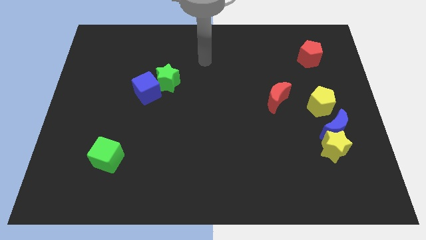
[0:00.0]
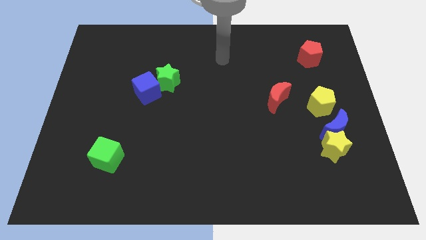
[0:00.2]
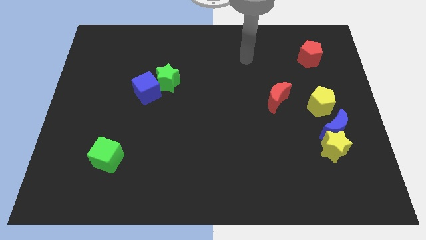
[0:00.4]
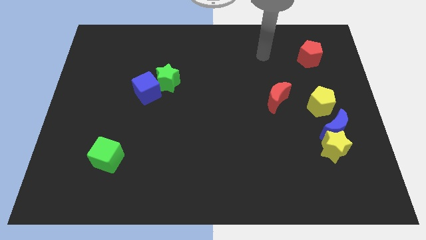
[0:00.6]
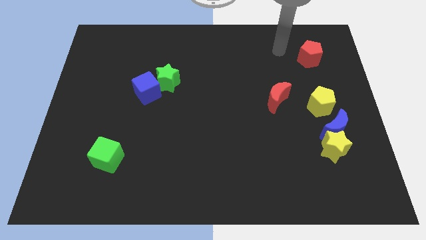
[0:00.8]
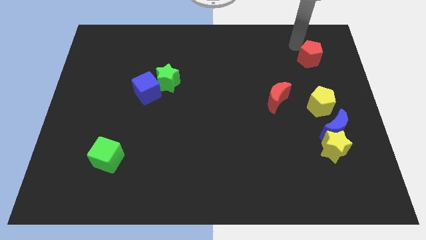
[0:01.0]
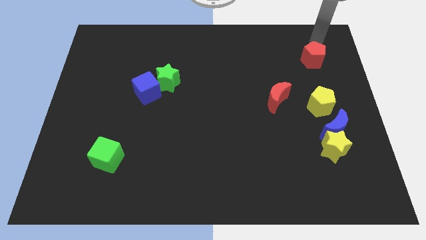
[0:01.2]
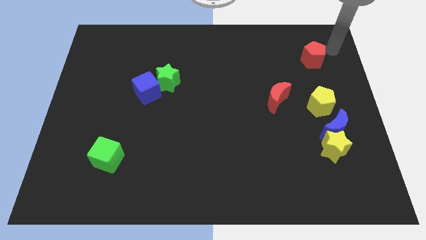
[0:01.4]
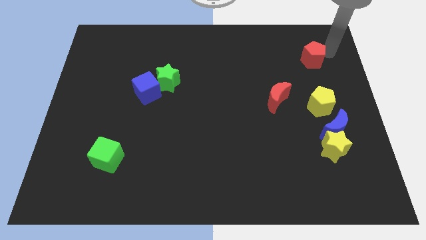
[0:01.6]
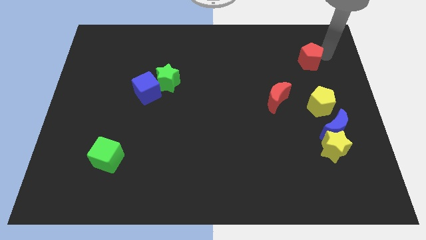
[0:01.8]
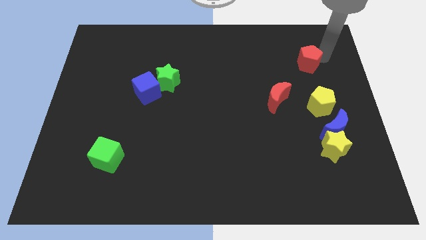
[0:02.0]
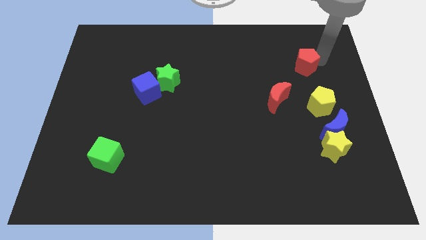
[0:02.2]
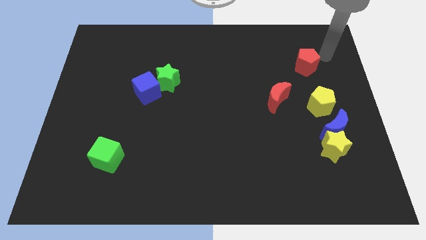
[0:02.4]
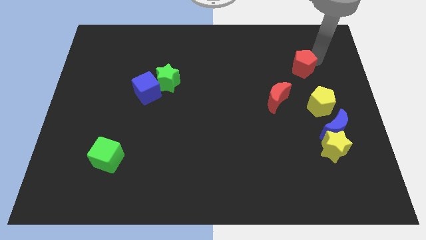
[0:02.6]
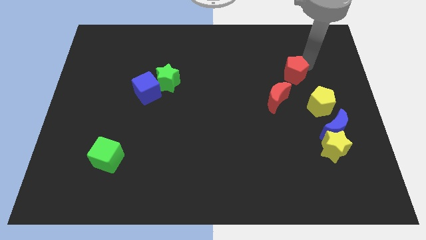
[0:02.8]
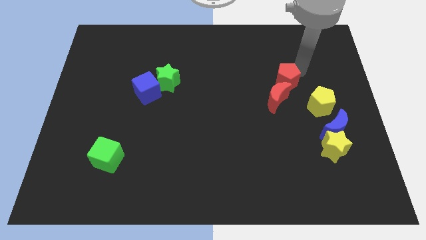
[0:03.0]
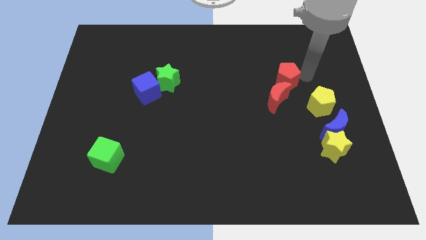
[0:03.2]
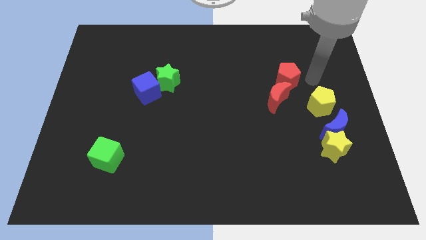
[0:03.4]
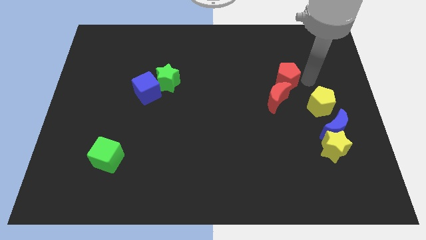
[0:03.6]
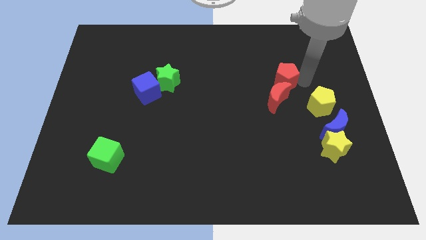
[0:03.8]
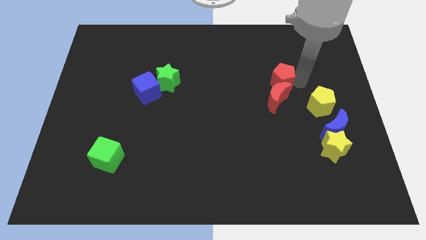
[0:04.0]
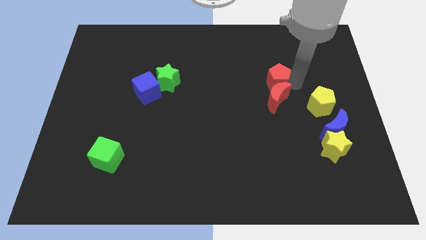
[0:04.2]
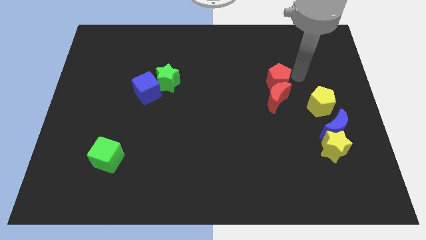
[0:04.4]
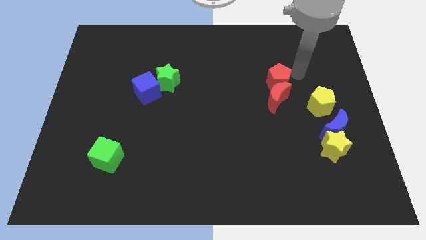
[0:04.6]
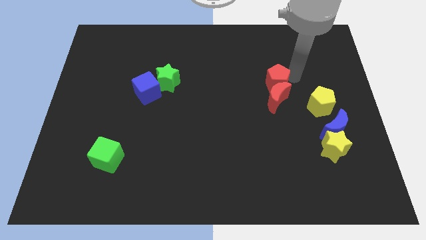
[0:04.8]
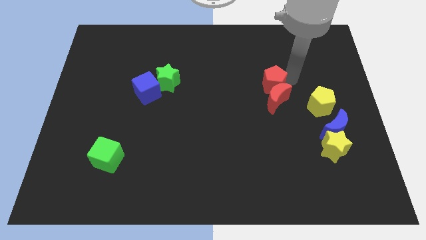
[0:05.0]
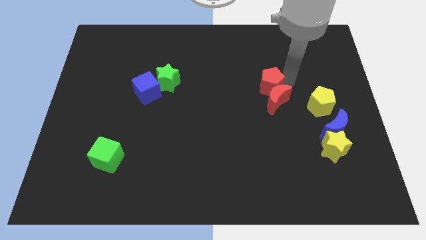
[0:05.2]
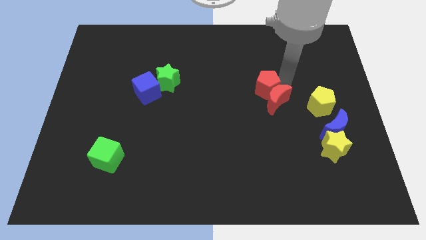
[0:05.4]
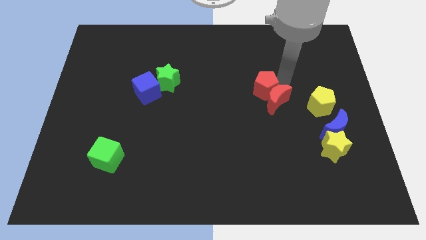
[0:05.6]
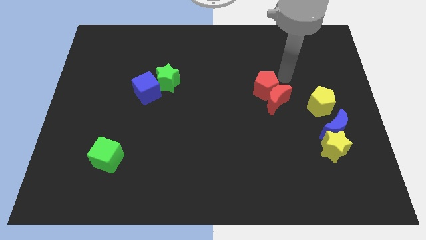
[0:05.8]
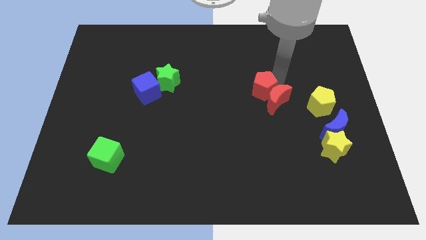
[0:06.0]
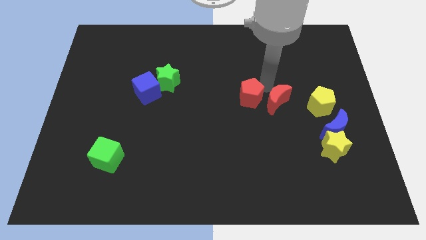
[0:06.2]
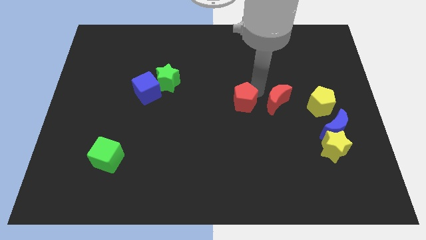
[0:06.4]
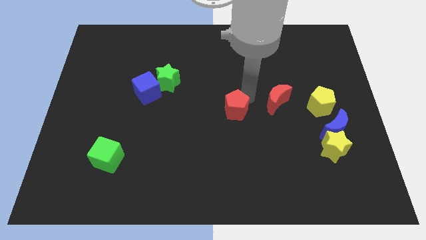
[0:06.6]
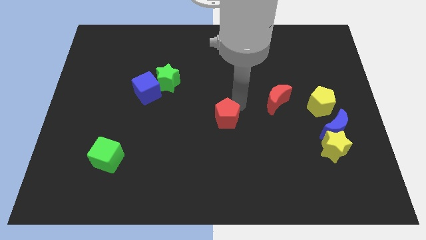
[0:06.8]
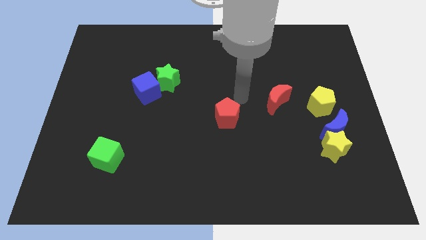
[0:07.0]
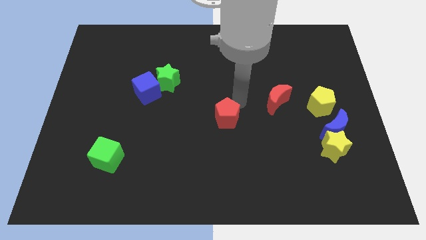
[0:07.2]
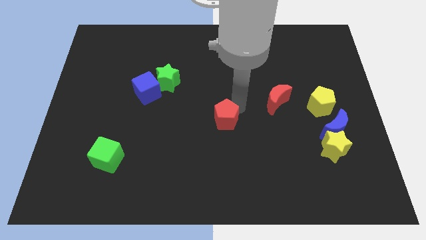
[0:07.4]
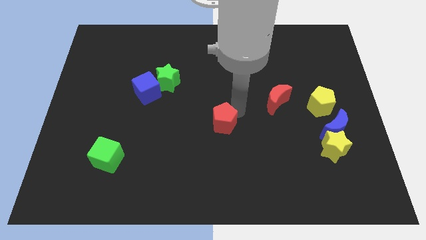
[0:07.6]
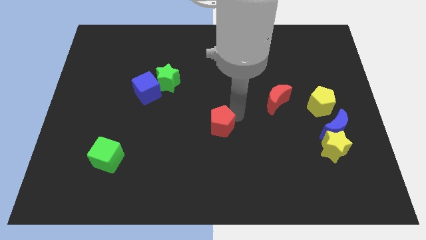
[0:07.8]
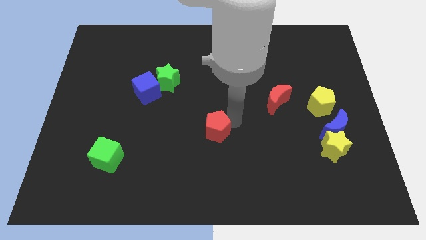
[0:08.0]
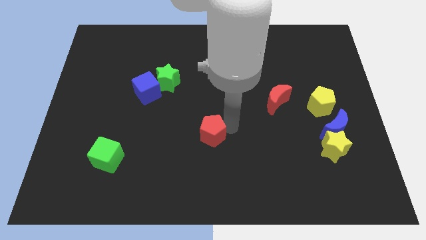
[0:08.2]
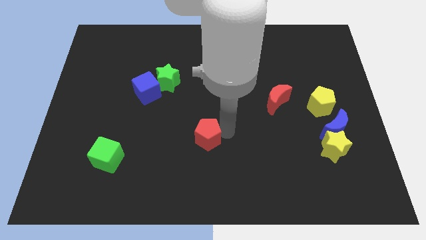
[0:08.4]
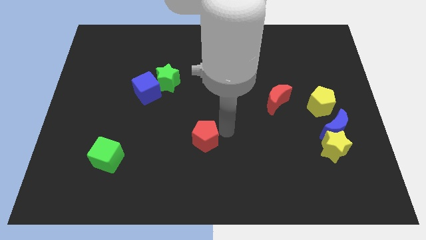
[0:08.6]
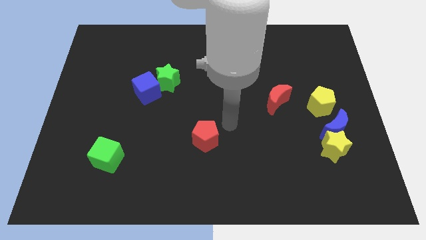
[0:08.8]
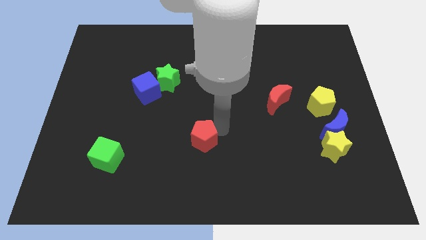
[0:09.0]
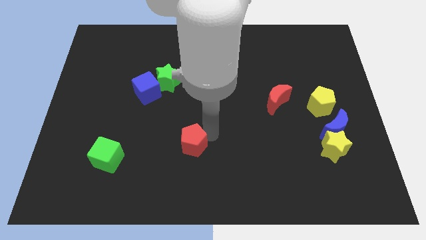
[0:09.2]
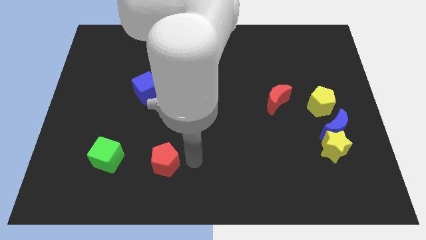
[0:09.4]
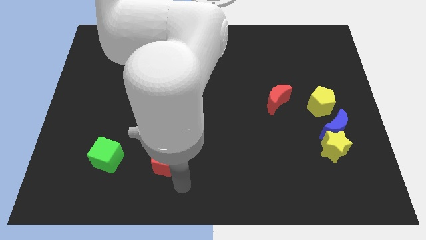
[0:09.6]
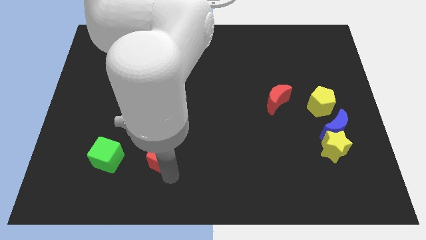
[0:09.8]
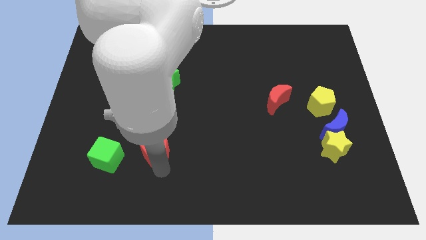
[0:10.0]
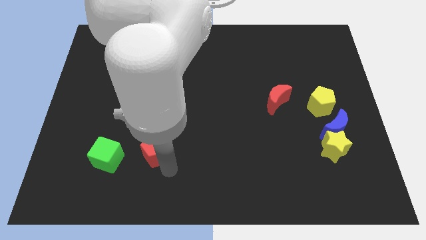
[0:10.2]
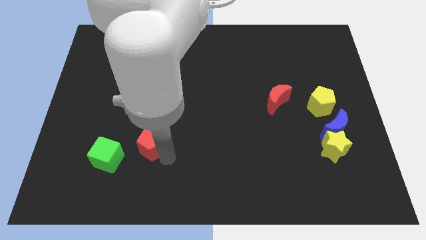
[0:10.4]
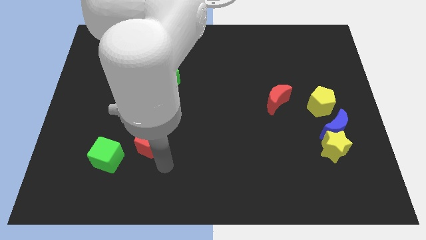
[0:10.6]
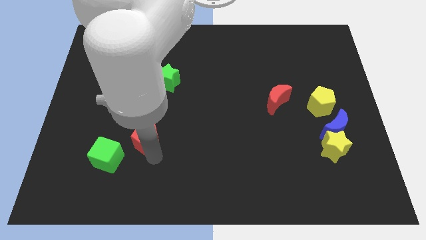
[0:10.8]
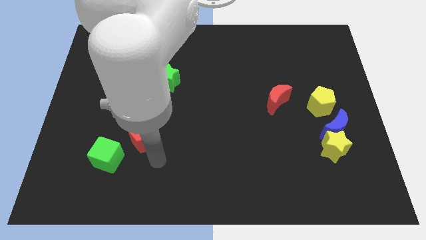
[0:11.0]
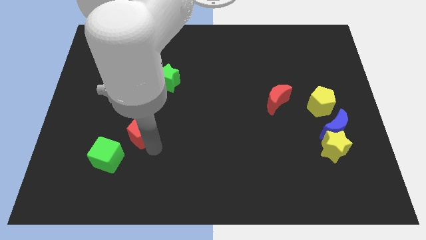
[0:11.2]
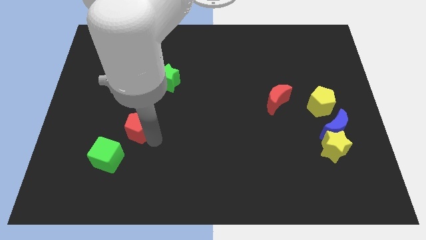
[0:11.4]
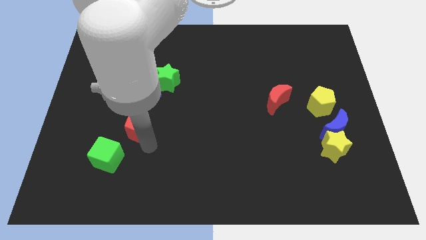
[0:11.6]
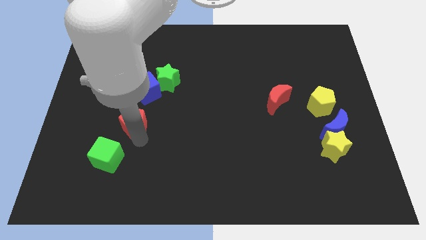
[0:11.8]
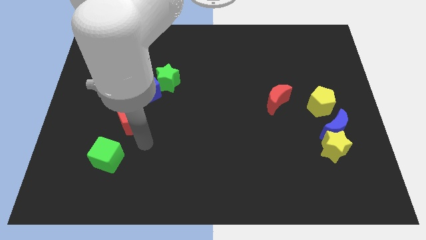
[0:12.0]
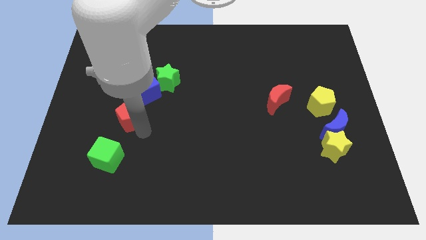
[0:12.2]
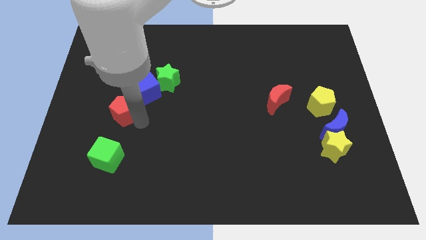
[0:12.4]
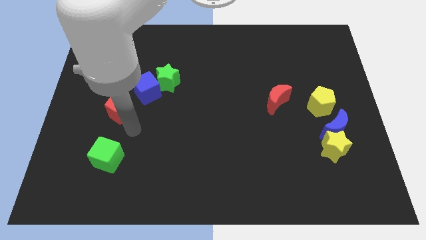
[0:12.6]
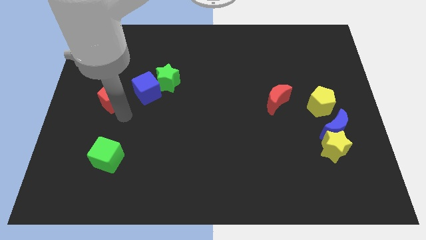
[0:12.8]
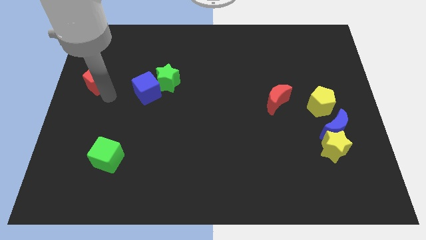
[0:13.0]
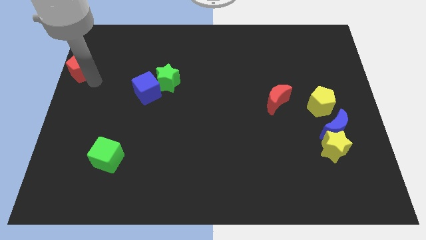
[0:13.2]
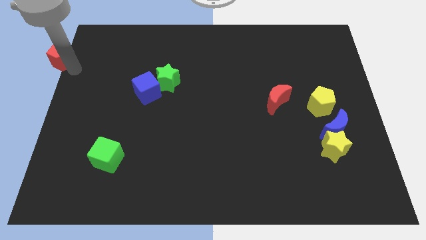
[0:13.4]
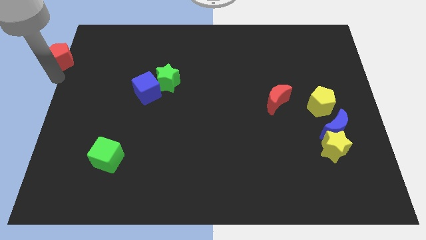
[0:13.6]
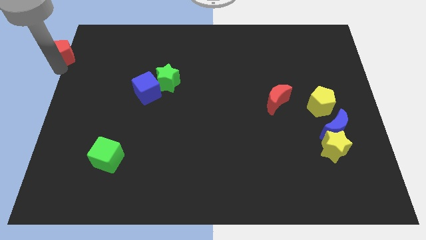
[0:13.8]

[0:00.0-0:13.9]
move the red pentagon to the top left
